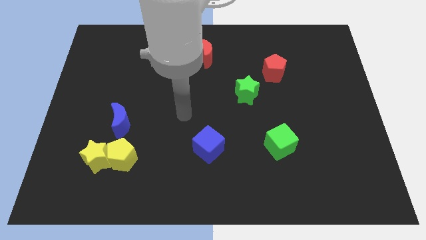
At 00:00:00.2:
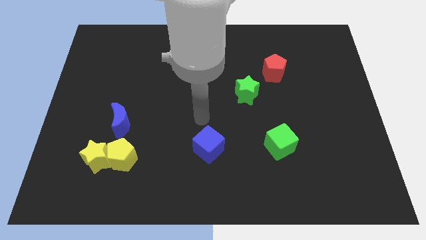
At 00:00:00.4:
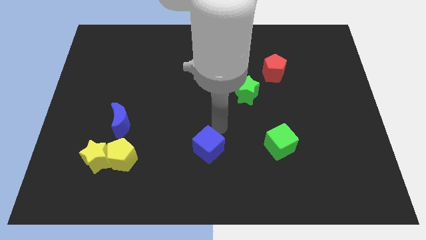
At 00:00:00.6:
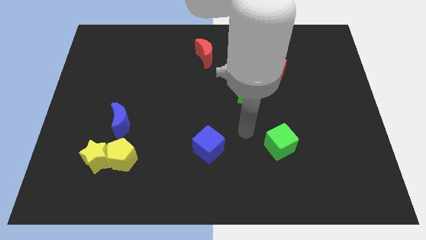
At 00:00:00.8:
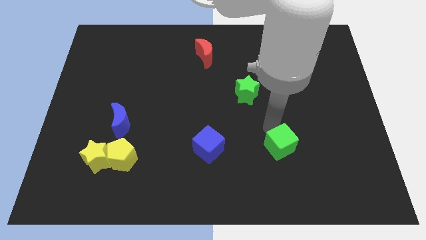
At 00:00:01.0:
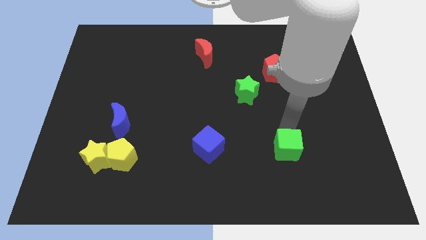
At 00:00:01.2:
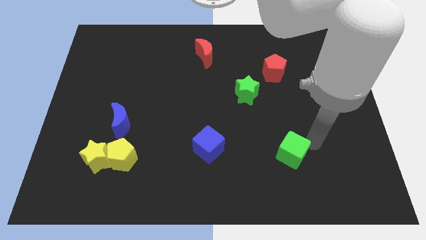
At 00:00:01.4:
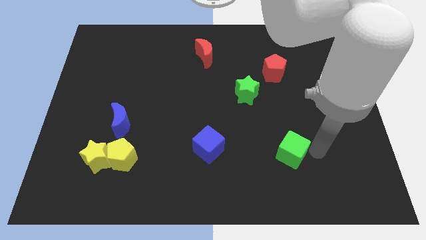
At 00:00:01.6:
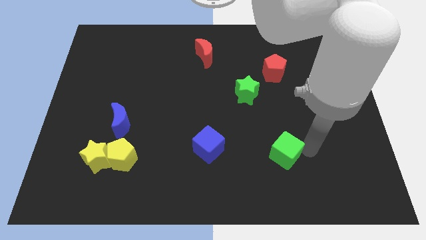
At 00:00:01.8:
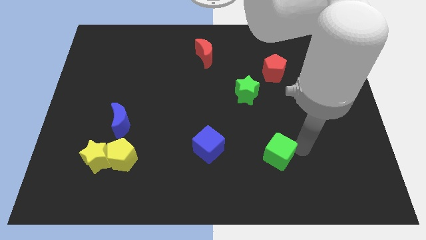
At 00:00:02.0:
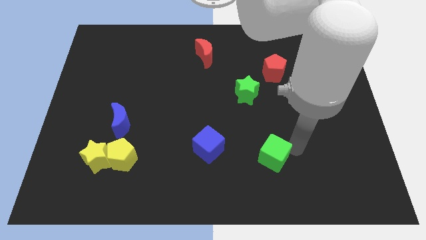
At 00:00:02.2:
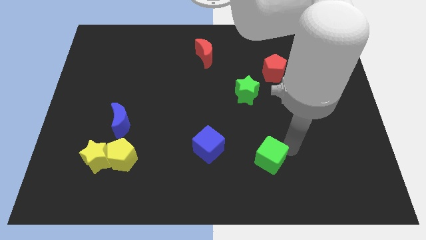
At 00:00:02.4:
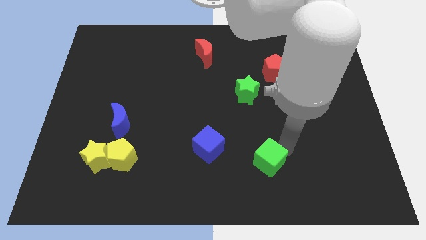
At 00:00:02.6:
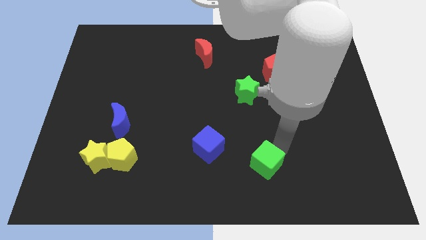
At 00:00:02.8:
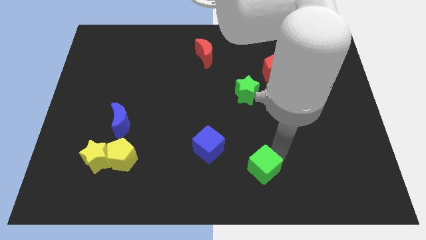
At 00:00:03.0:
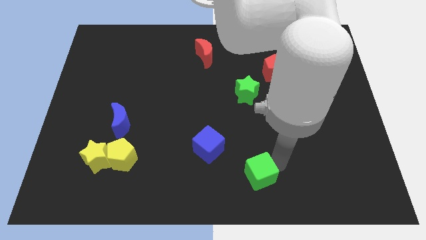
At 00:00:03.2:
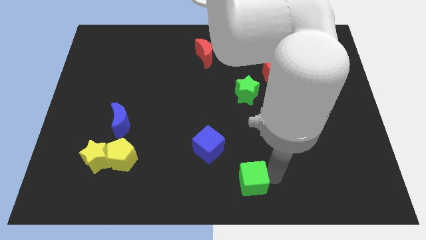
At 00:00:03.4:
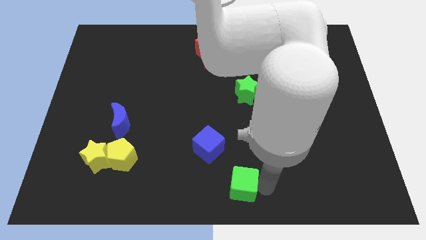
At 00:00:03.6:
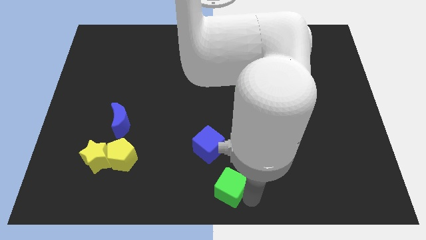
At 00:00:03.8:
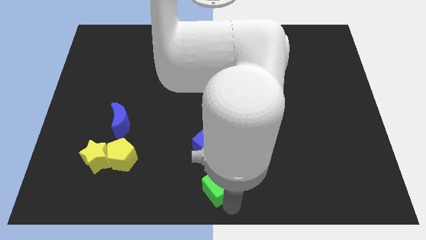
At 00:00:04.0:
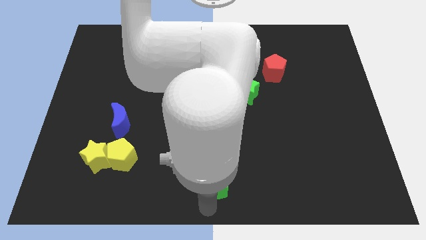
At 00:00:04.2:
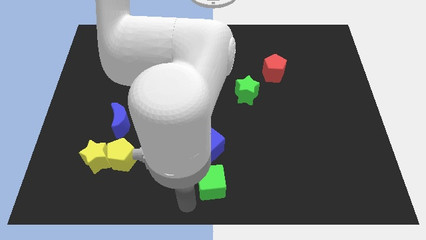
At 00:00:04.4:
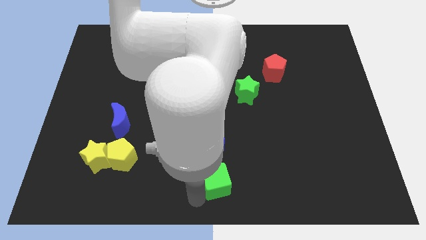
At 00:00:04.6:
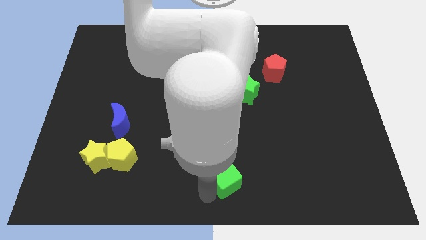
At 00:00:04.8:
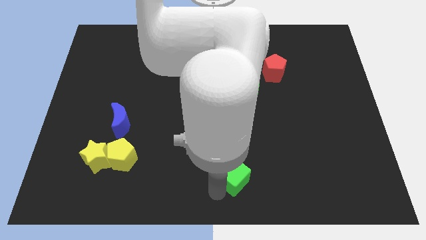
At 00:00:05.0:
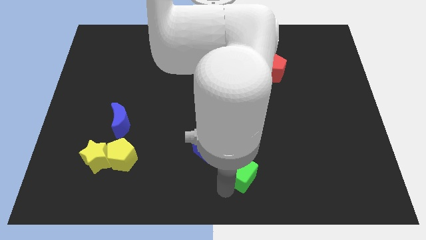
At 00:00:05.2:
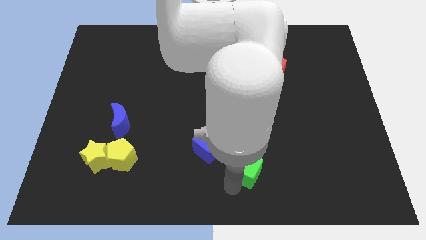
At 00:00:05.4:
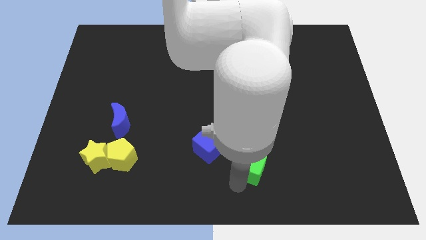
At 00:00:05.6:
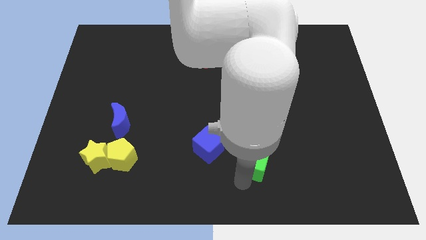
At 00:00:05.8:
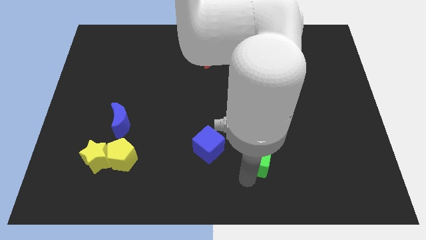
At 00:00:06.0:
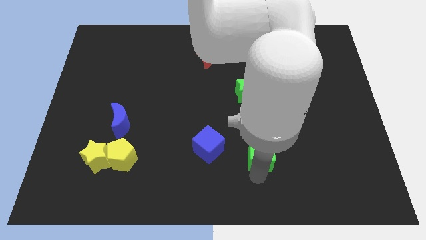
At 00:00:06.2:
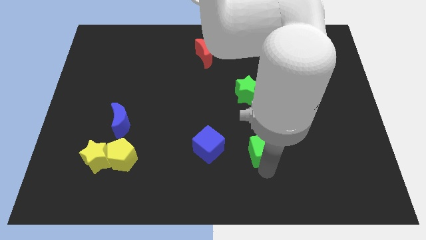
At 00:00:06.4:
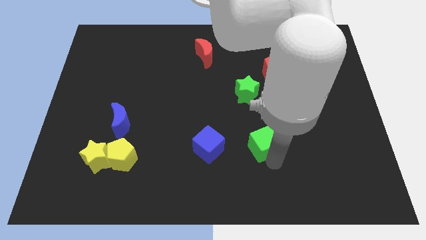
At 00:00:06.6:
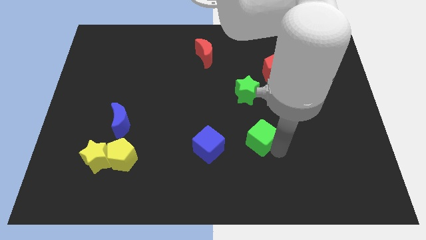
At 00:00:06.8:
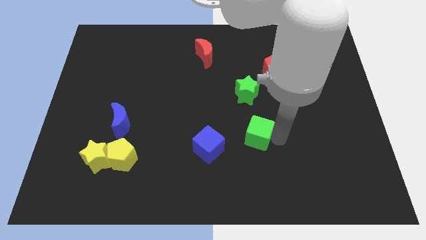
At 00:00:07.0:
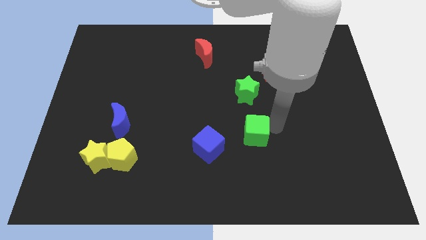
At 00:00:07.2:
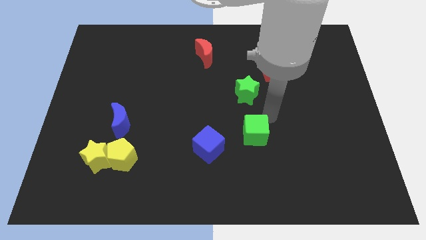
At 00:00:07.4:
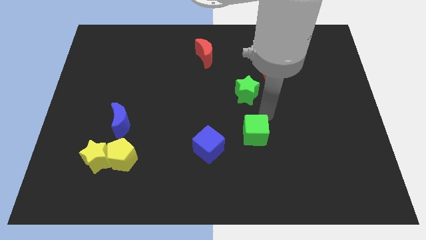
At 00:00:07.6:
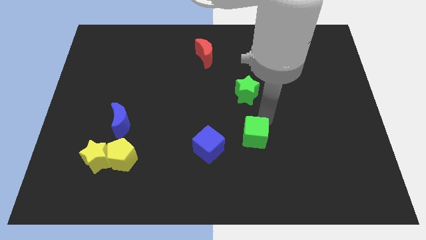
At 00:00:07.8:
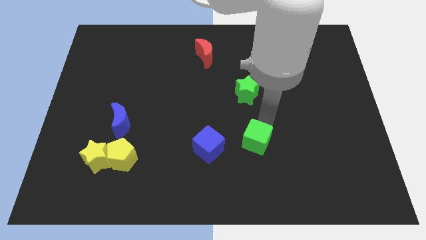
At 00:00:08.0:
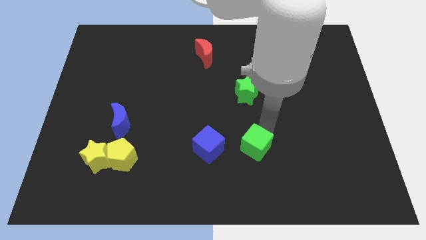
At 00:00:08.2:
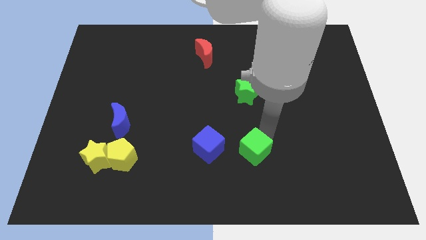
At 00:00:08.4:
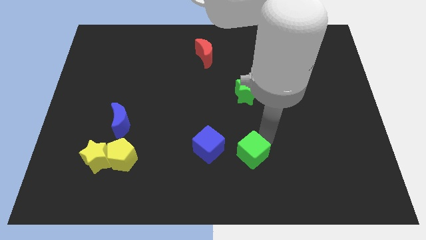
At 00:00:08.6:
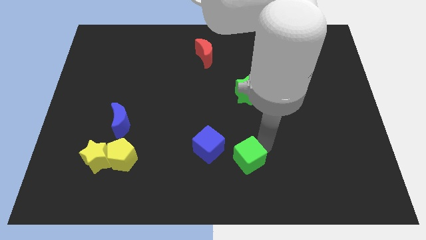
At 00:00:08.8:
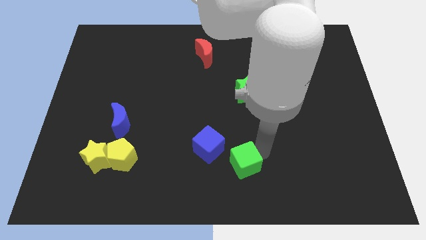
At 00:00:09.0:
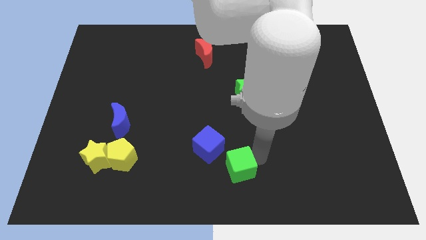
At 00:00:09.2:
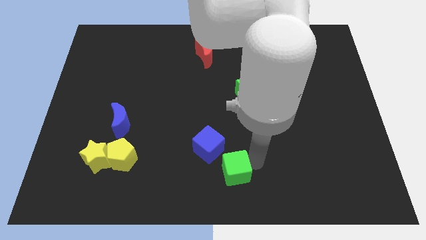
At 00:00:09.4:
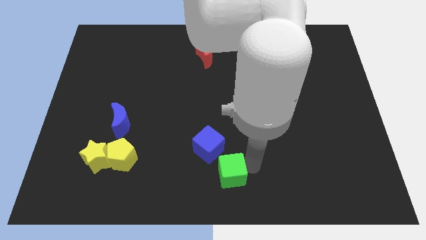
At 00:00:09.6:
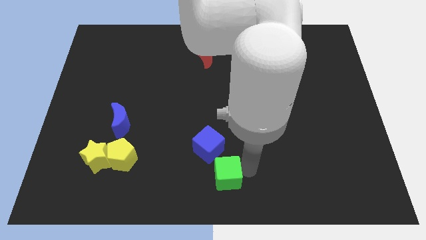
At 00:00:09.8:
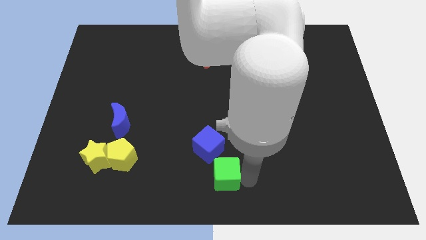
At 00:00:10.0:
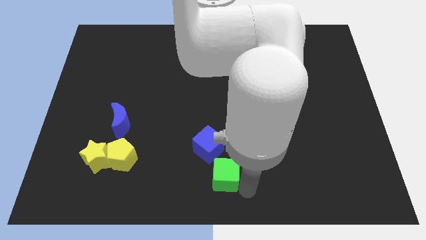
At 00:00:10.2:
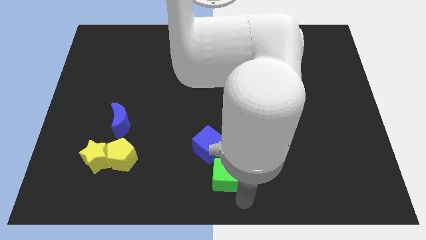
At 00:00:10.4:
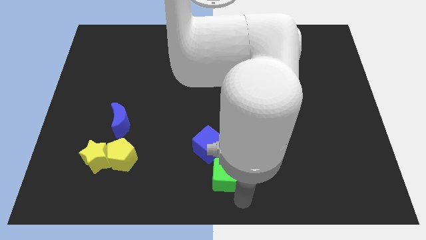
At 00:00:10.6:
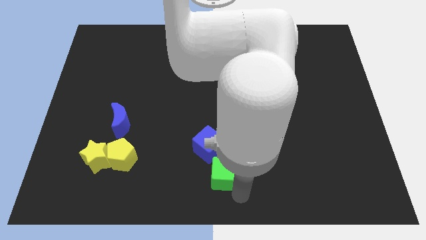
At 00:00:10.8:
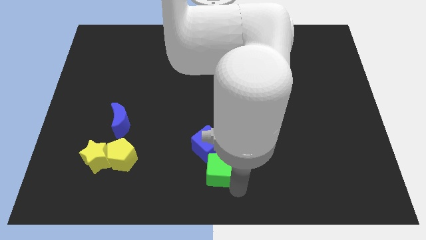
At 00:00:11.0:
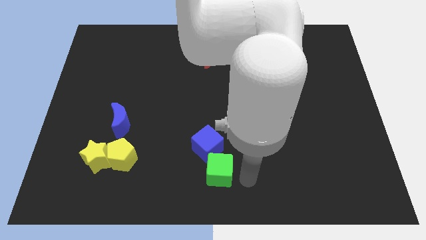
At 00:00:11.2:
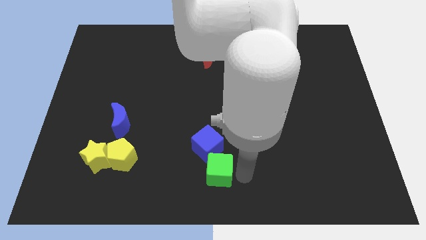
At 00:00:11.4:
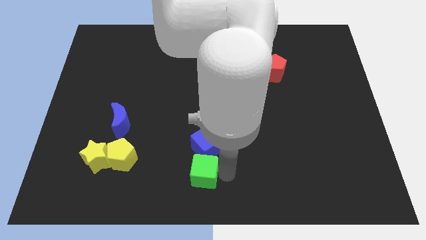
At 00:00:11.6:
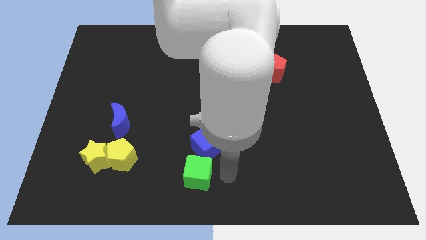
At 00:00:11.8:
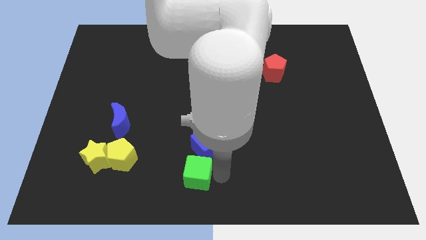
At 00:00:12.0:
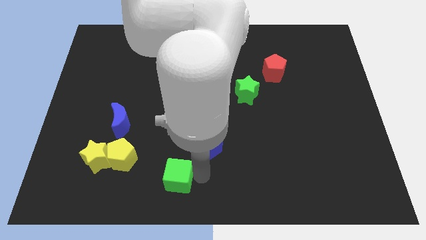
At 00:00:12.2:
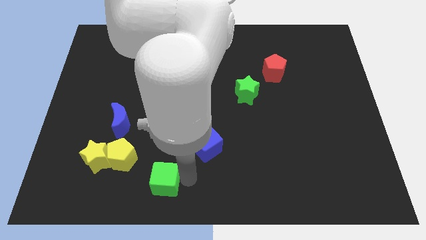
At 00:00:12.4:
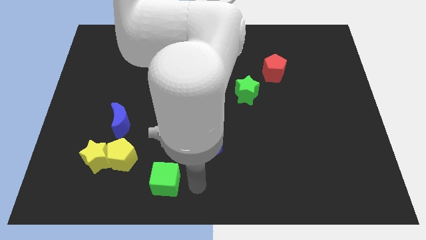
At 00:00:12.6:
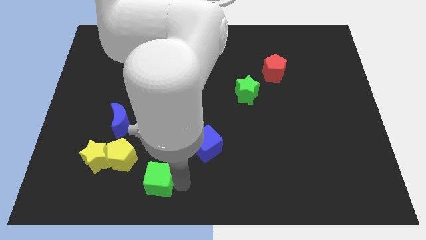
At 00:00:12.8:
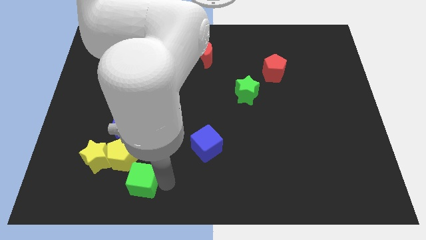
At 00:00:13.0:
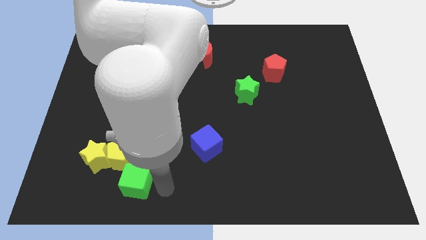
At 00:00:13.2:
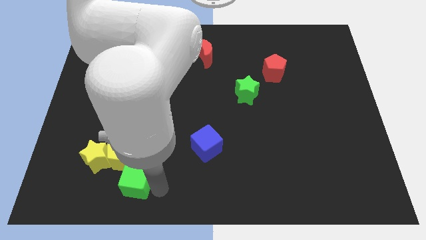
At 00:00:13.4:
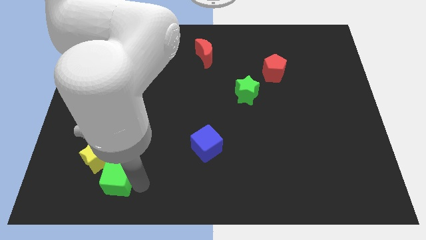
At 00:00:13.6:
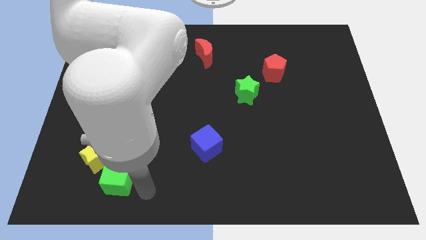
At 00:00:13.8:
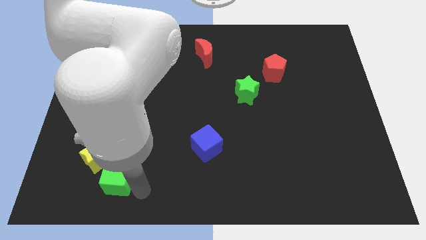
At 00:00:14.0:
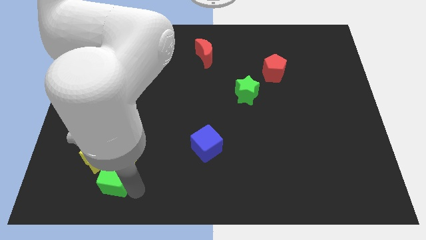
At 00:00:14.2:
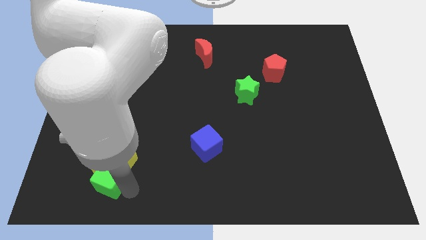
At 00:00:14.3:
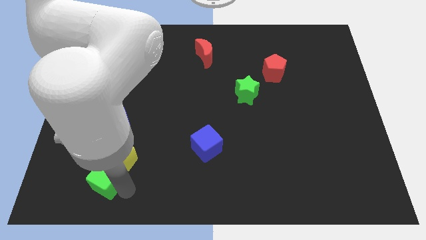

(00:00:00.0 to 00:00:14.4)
put the green cube next to the yellow star
